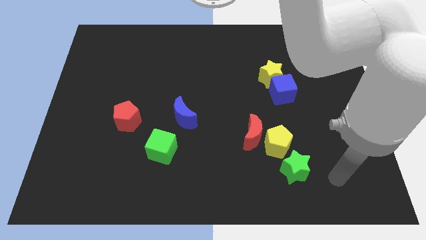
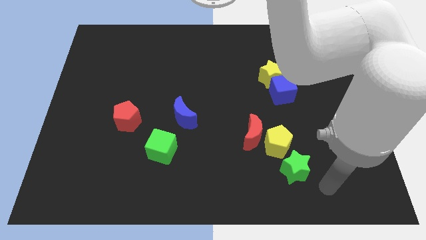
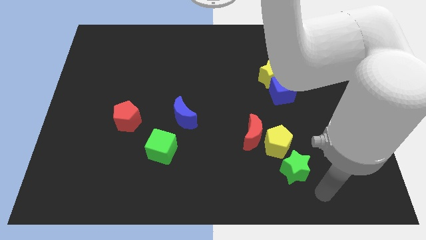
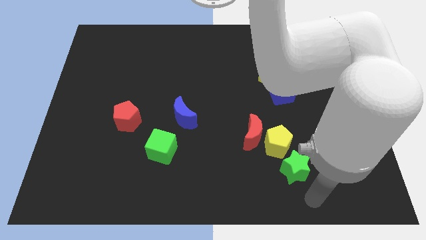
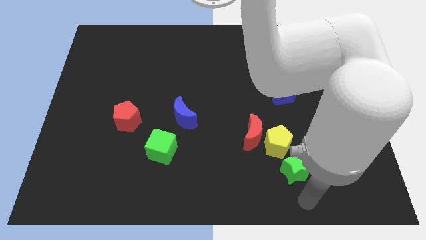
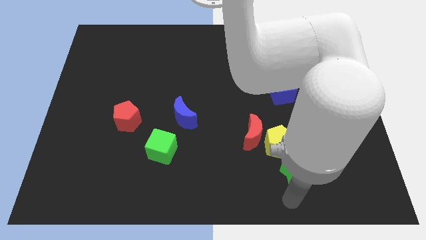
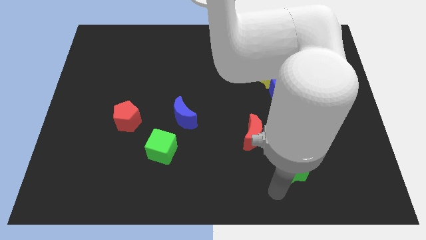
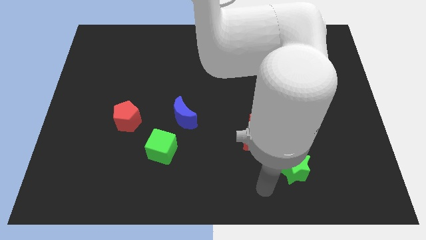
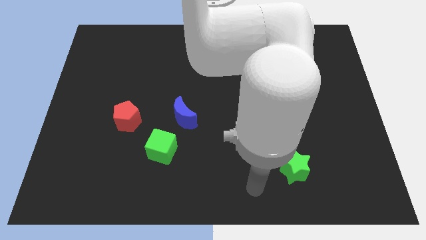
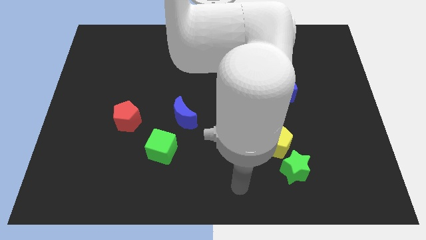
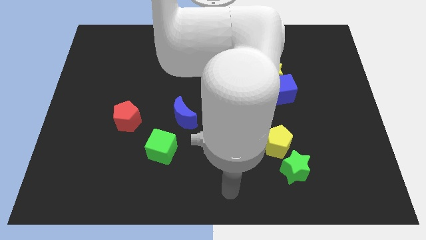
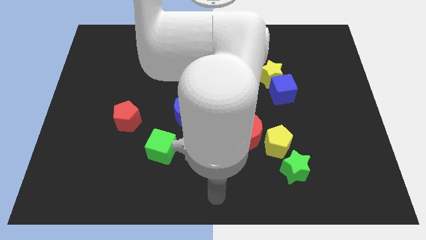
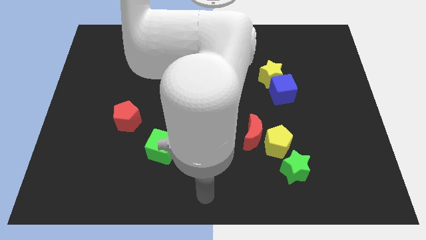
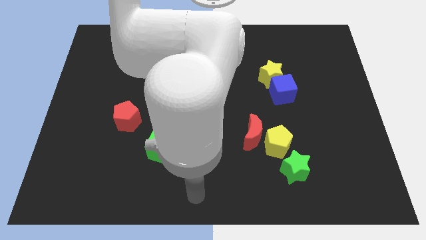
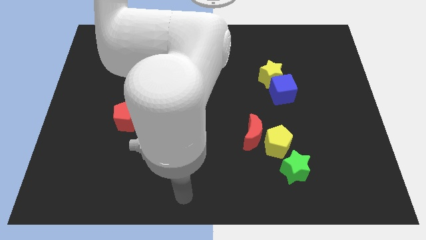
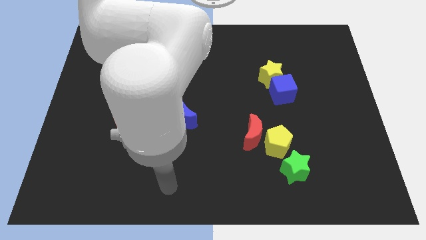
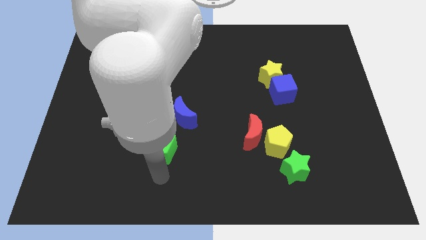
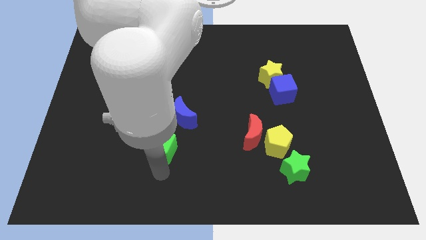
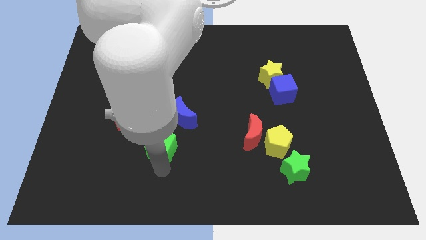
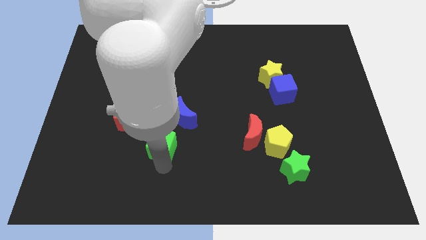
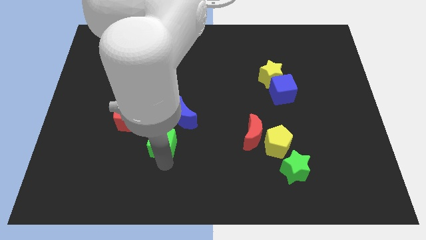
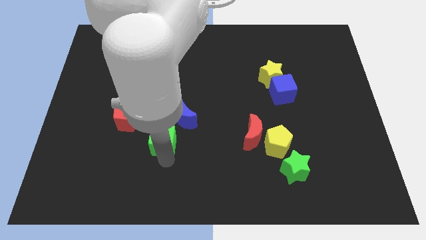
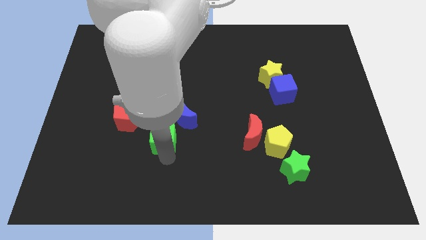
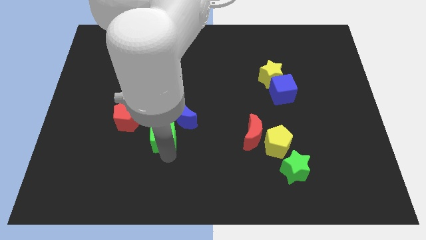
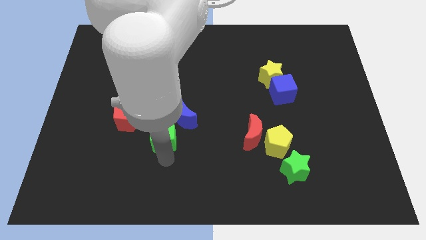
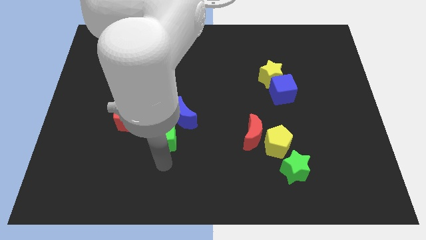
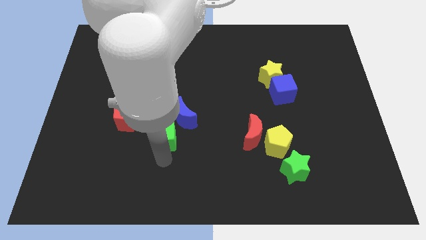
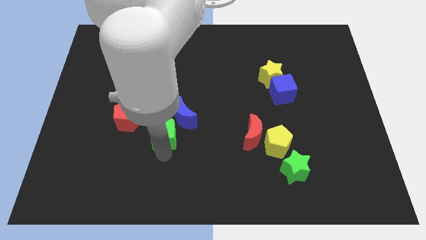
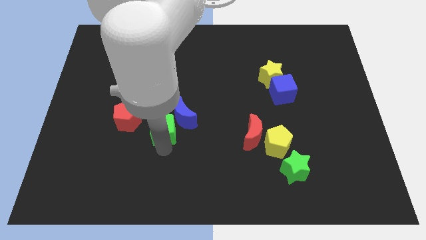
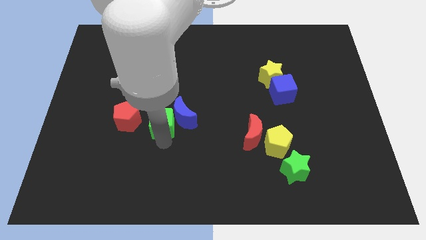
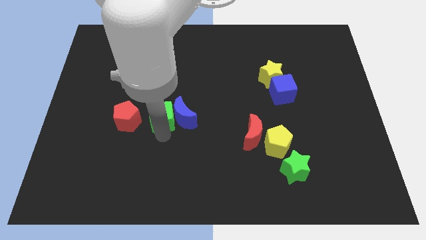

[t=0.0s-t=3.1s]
move the green cube up somewhat

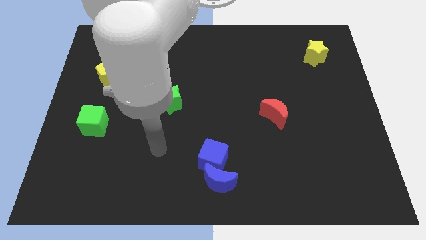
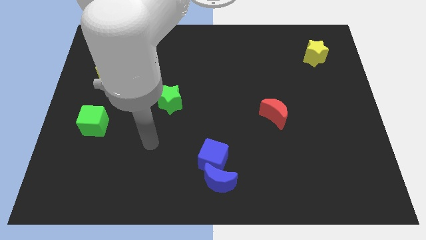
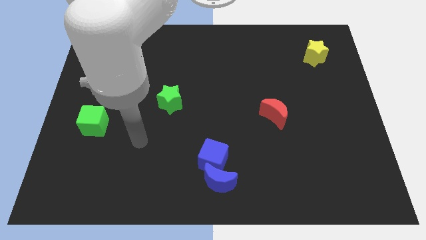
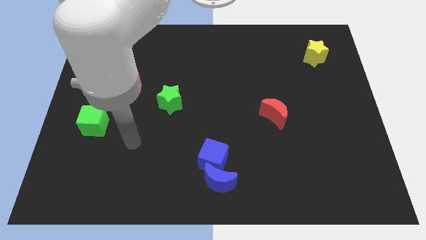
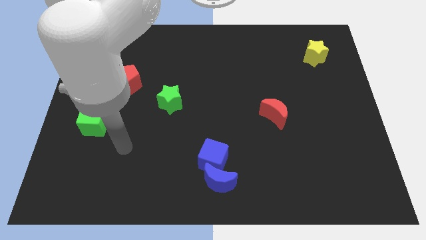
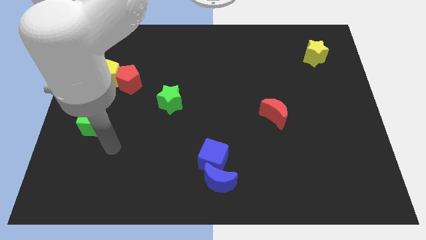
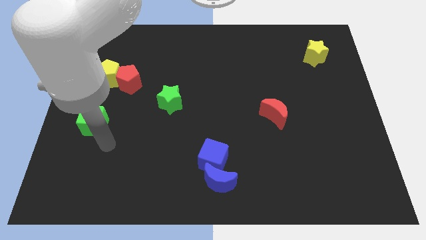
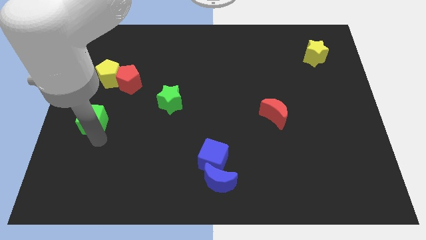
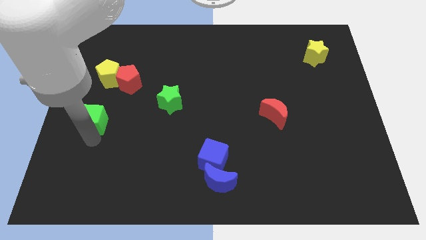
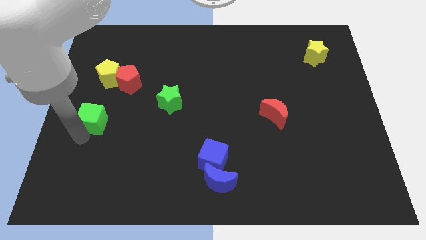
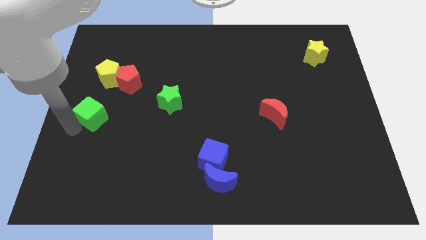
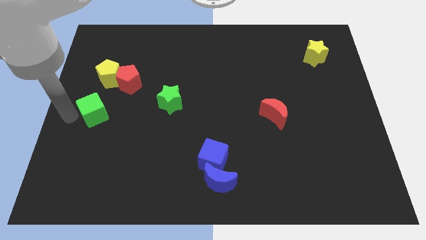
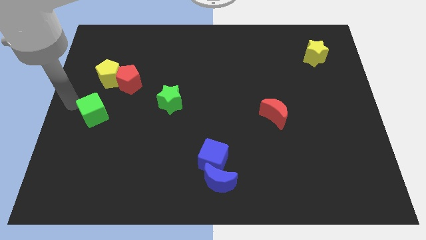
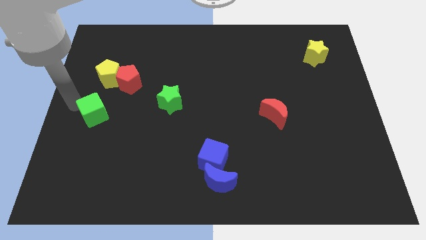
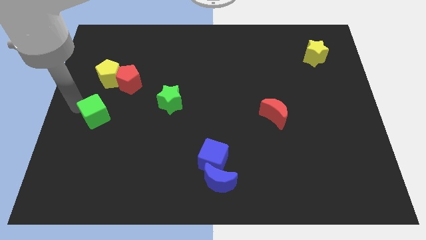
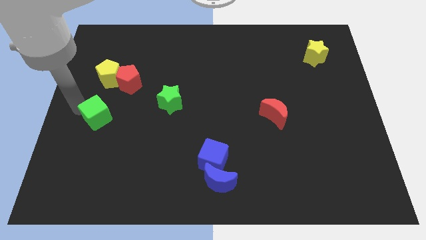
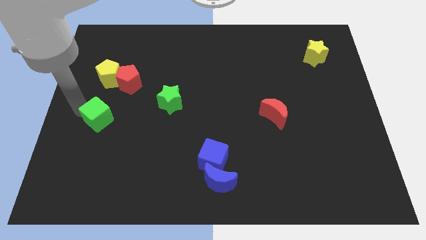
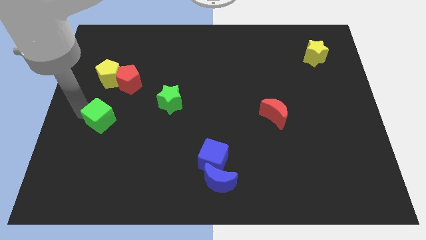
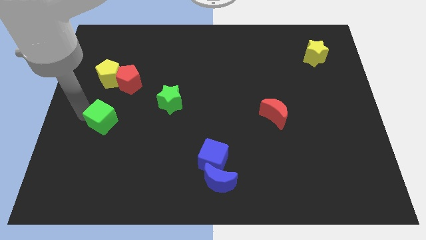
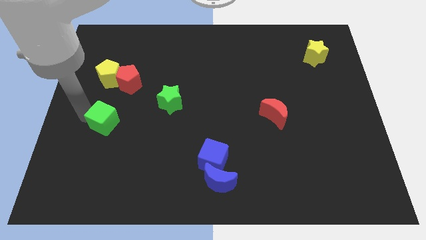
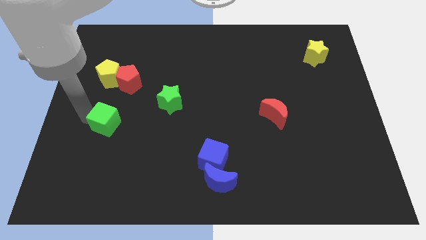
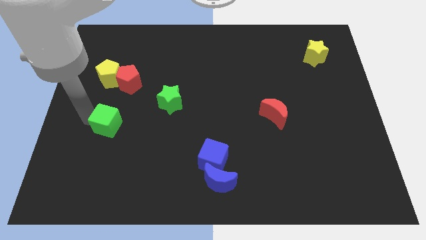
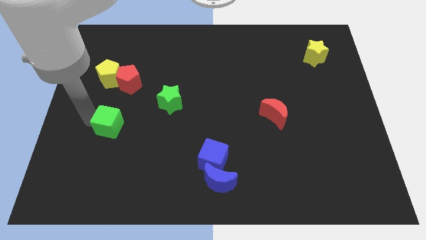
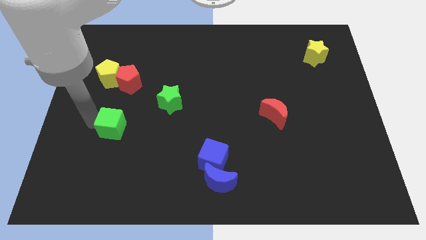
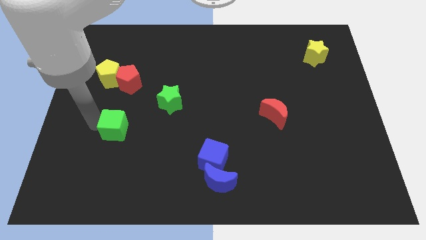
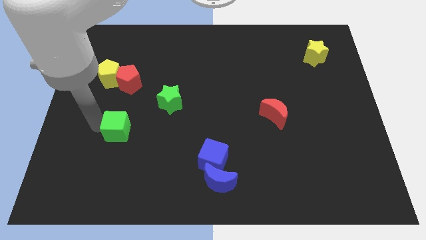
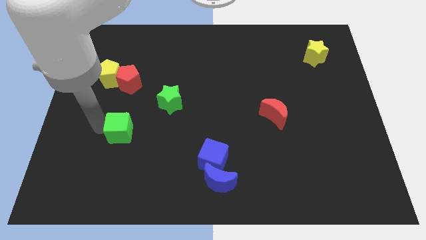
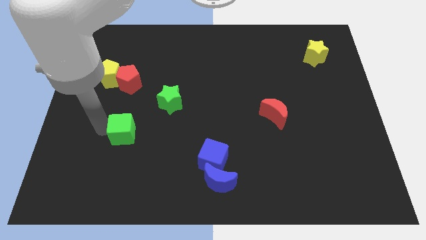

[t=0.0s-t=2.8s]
slide the green cube a bit to the right

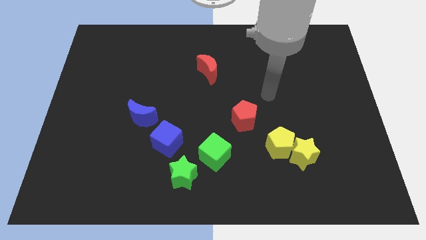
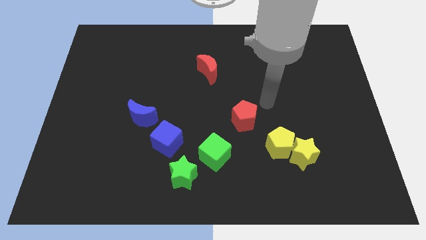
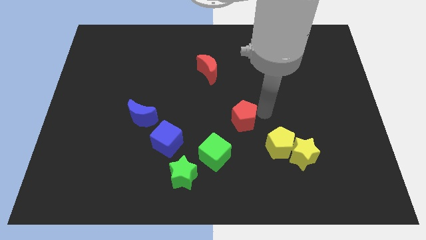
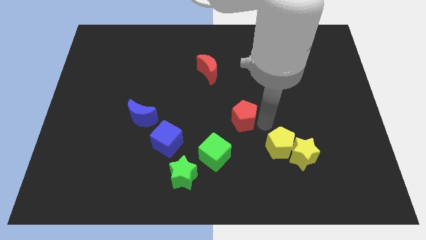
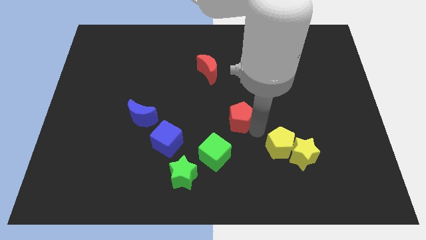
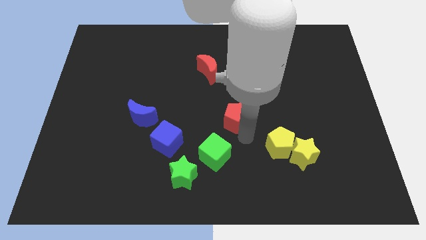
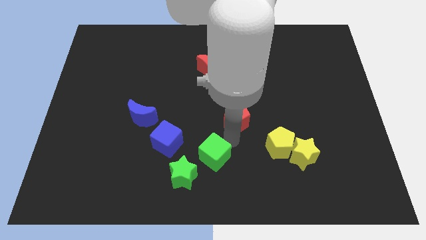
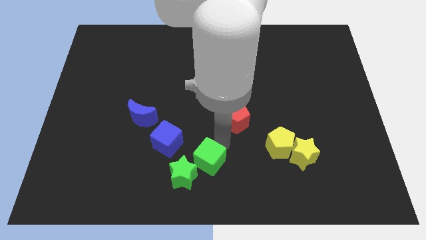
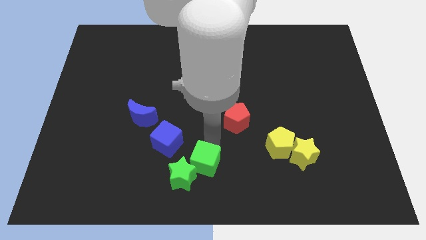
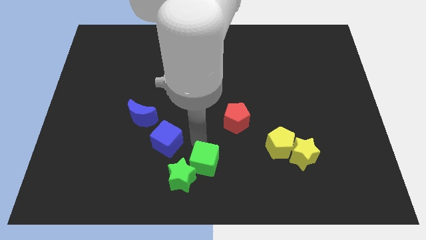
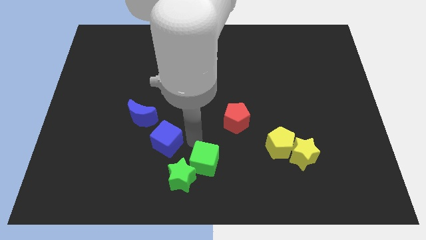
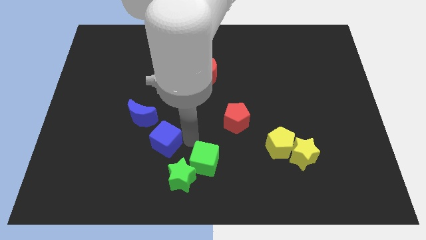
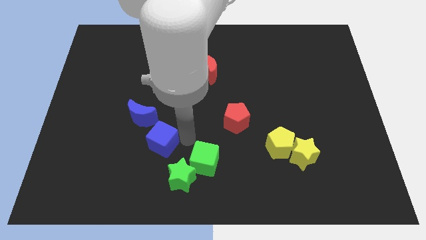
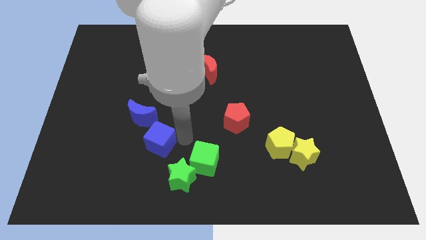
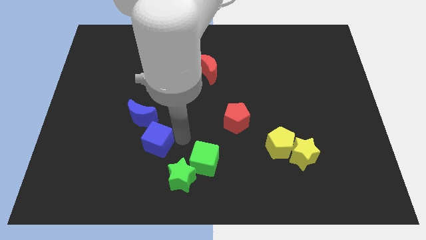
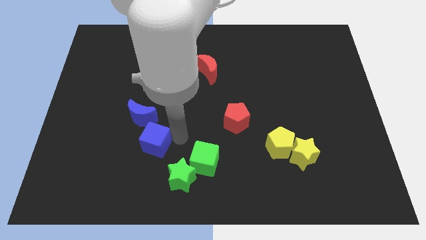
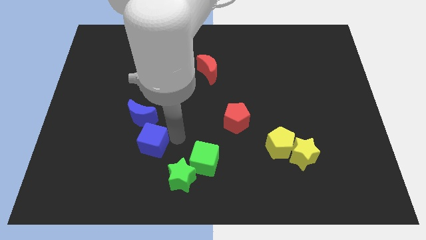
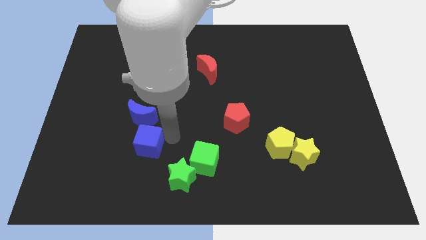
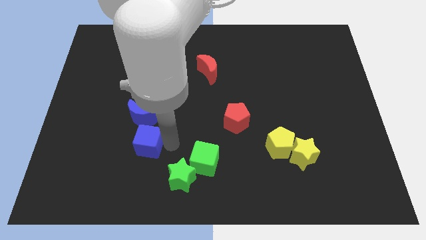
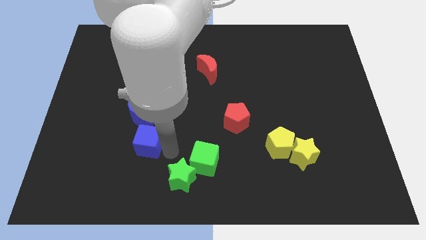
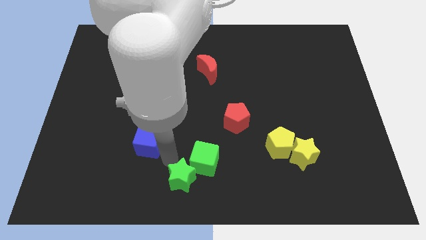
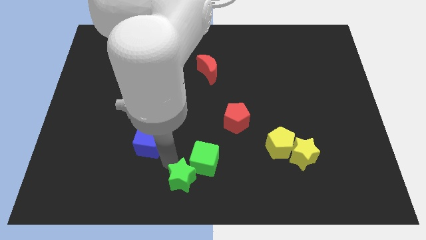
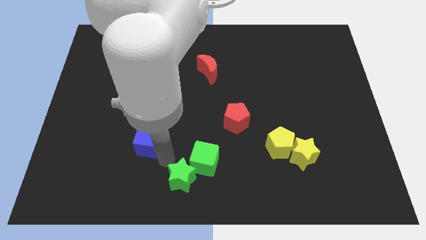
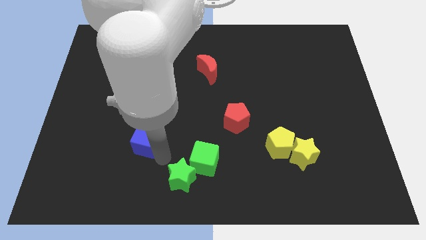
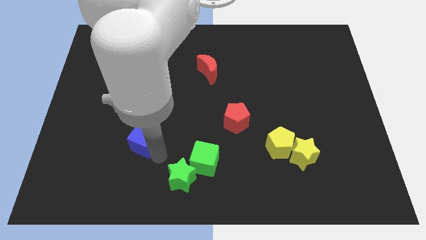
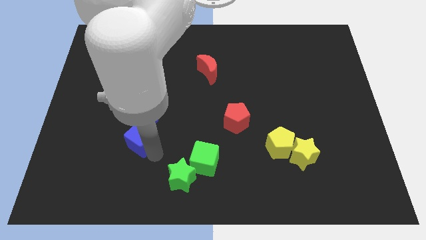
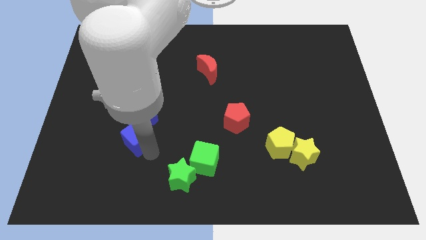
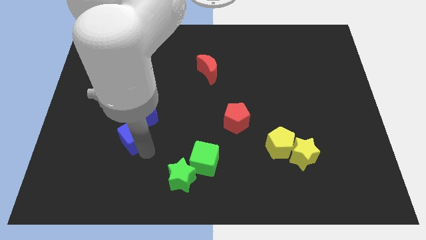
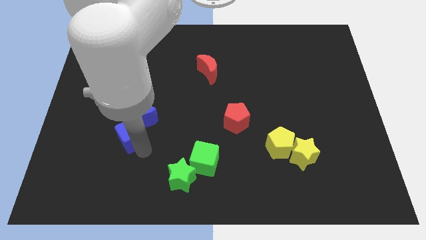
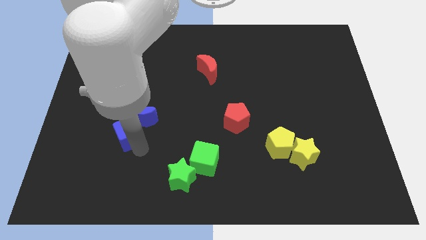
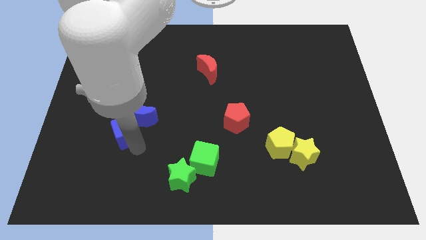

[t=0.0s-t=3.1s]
move the blue cube a little bit diagonally upwards and left
